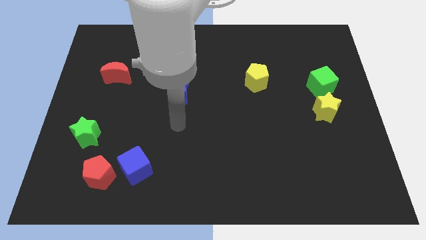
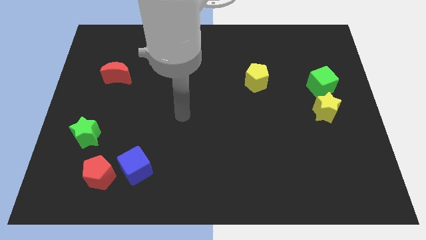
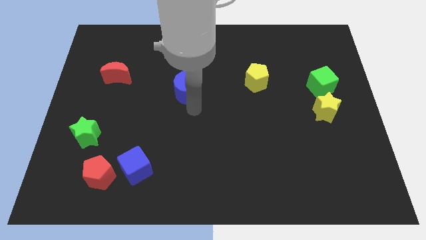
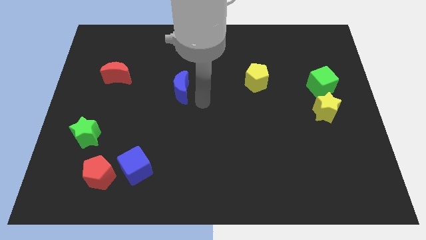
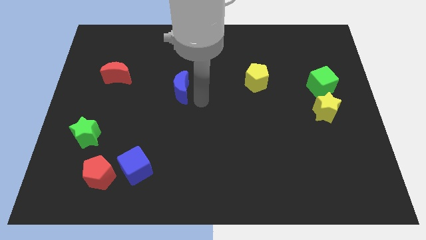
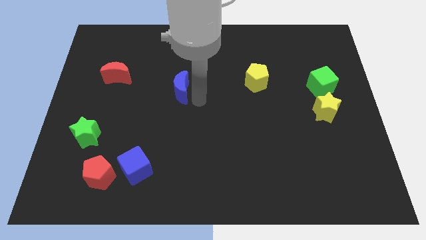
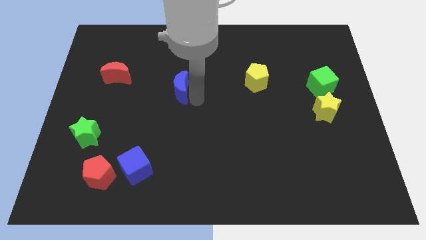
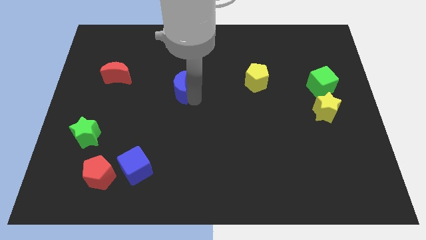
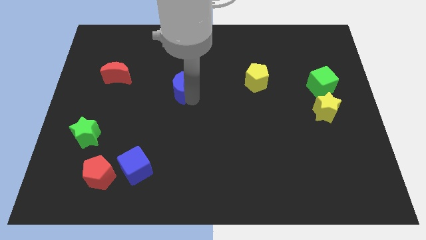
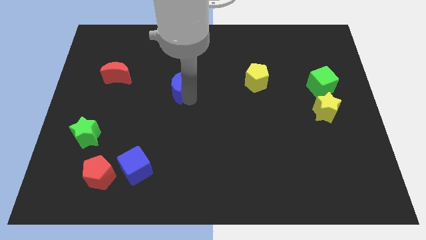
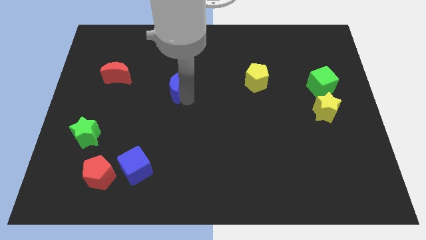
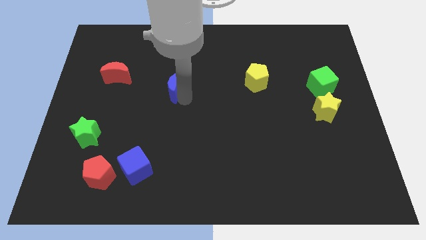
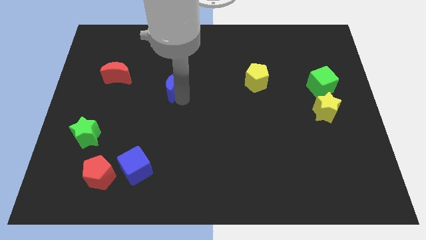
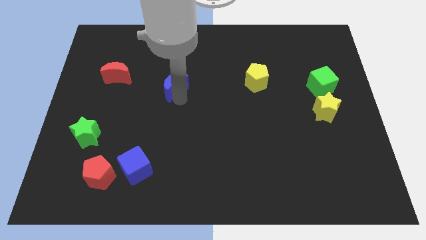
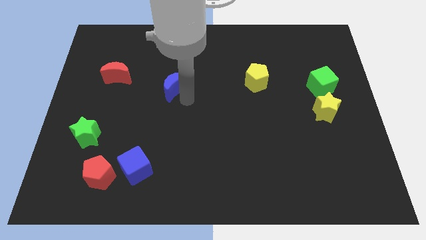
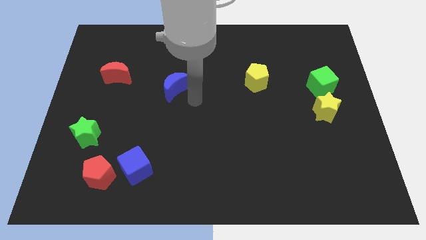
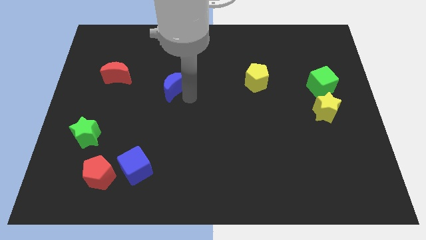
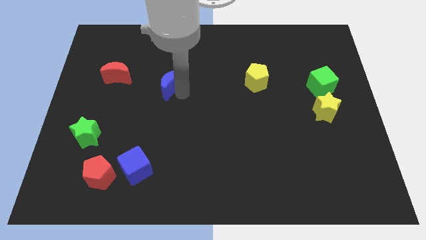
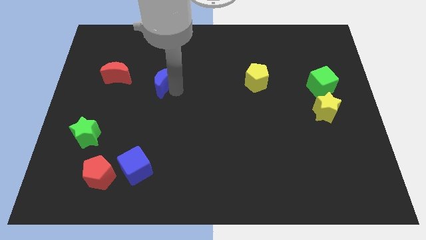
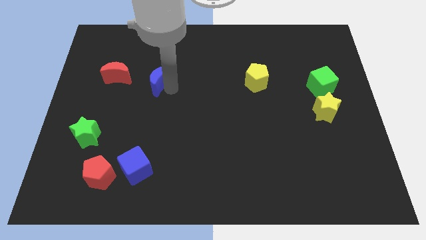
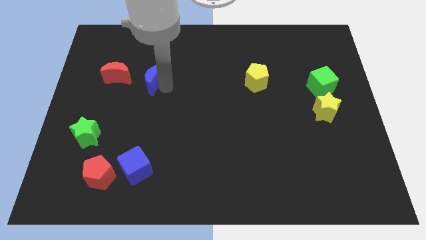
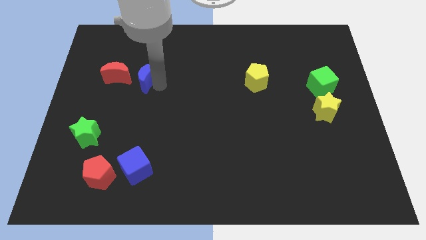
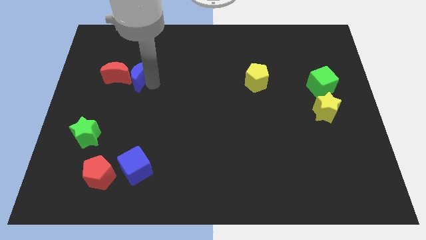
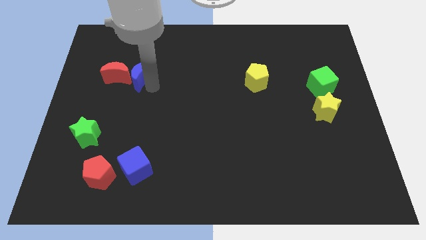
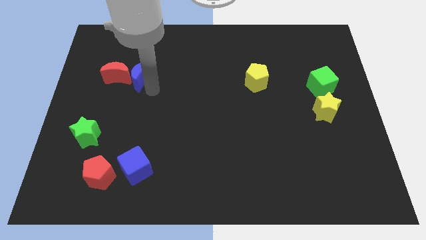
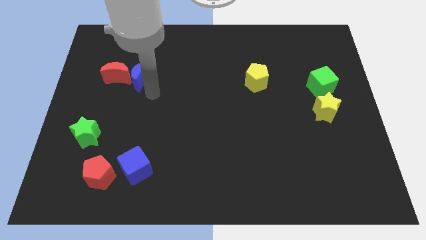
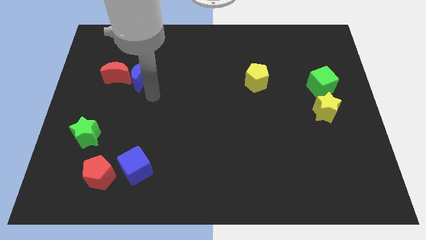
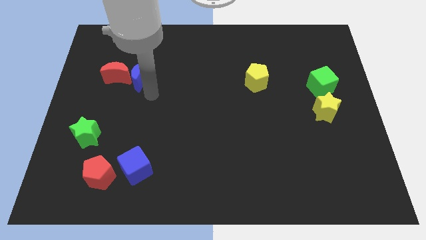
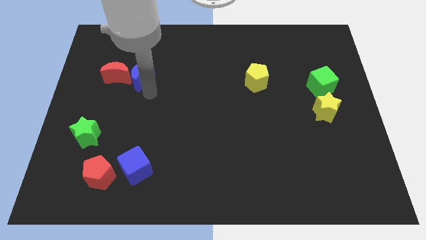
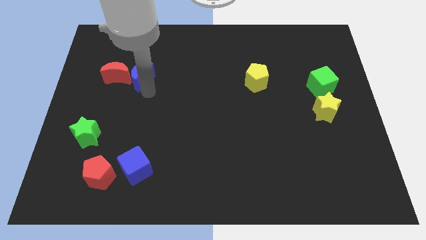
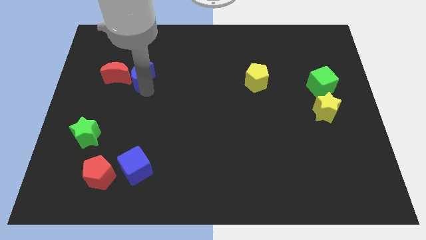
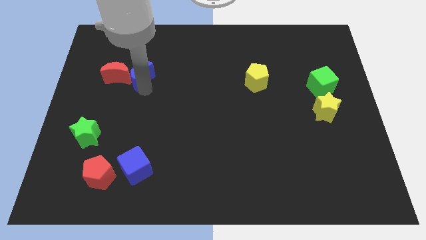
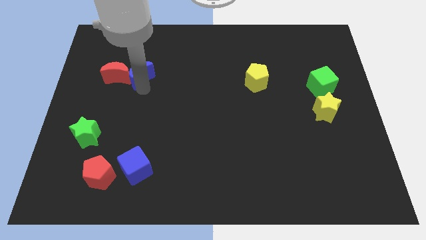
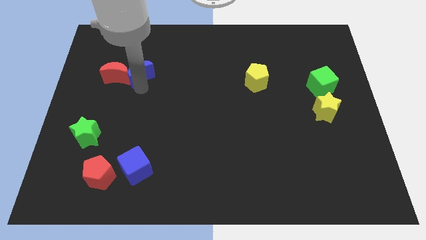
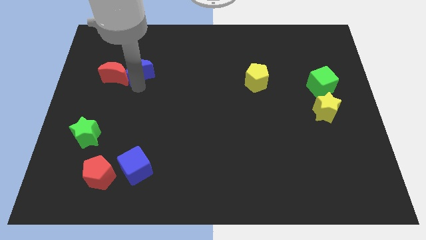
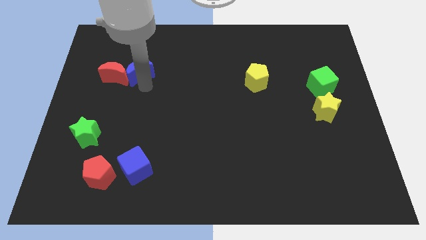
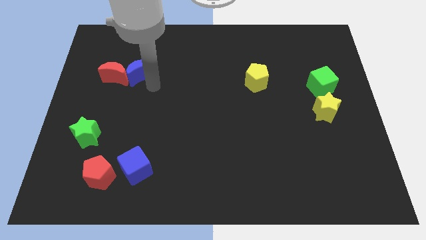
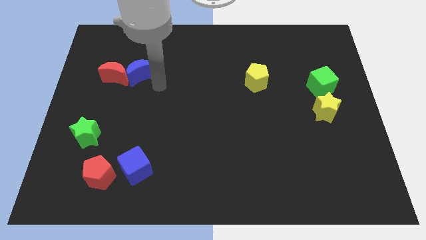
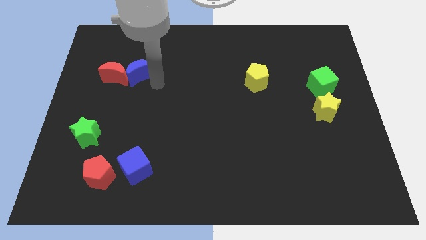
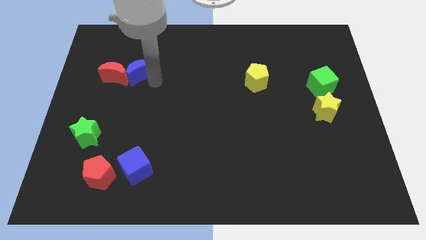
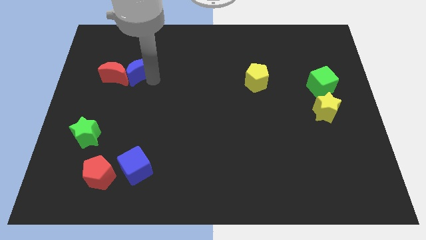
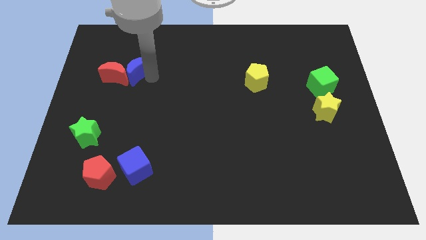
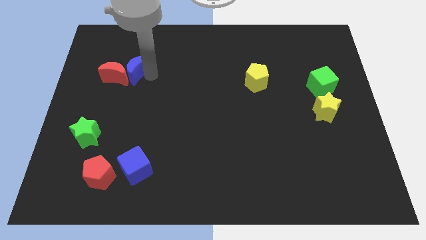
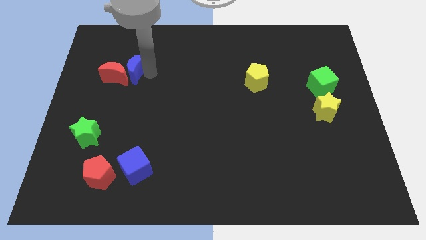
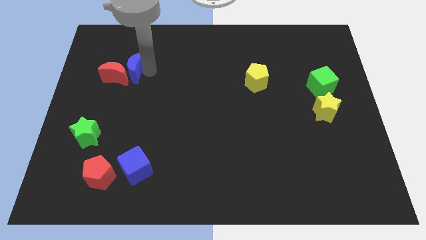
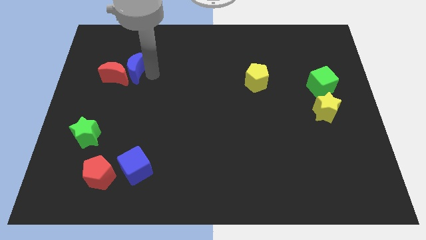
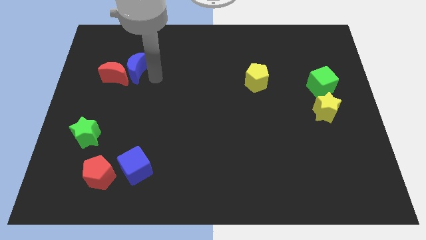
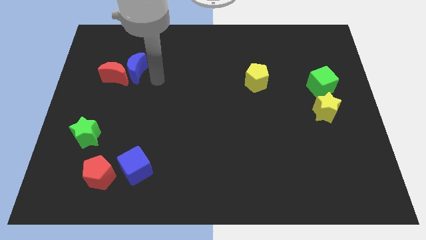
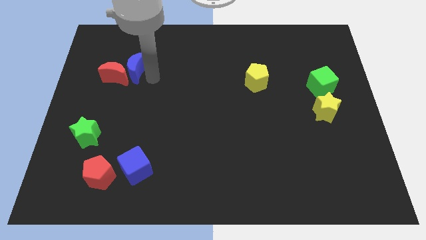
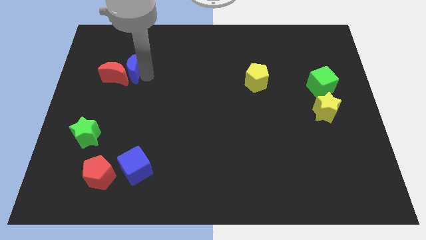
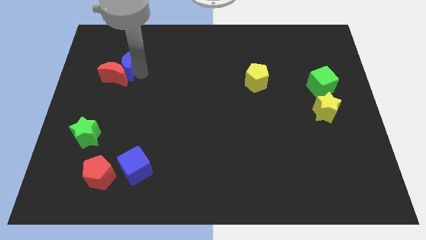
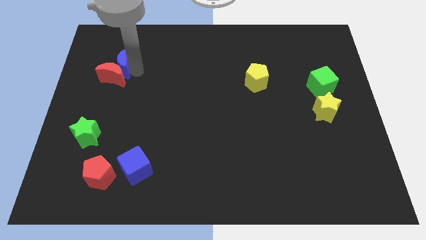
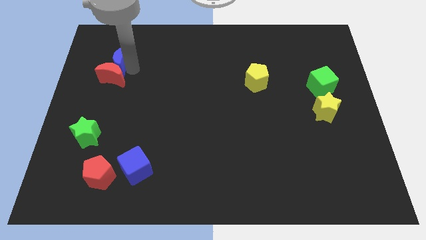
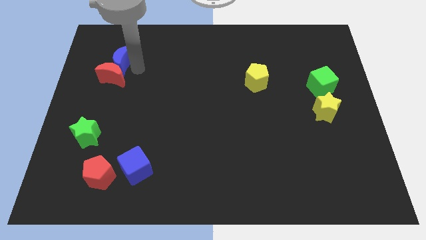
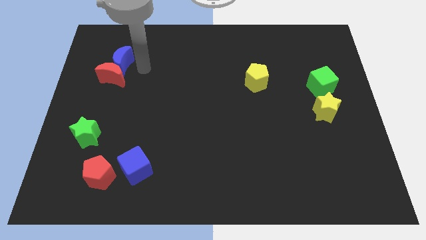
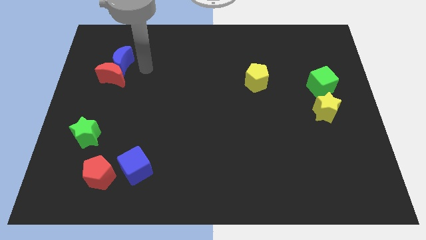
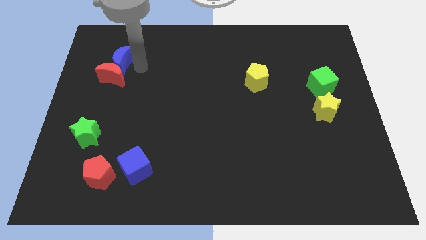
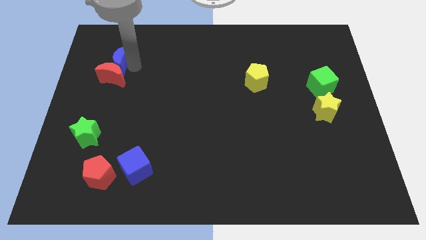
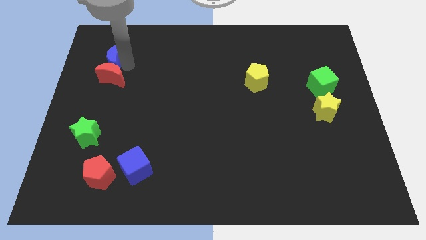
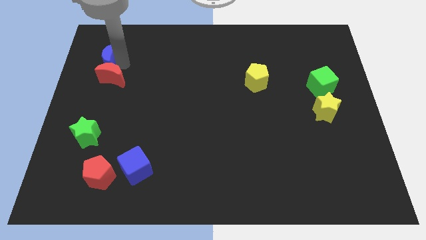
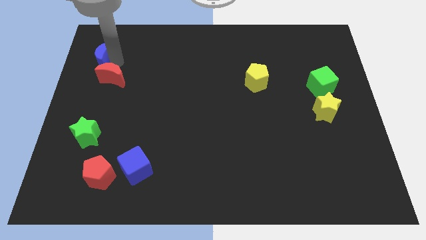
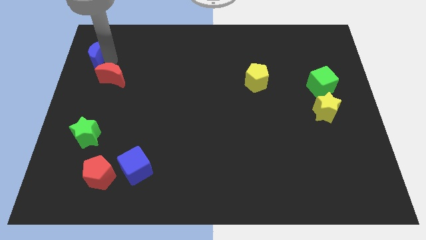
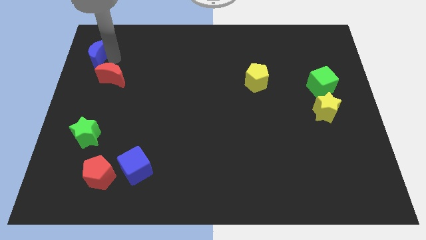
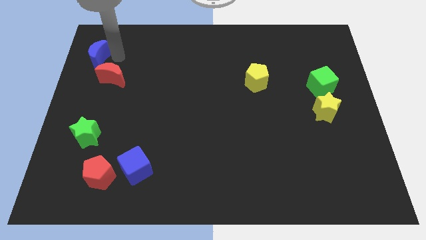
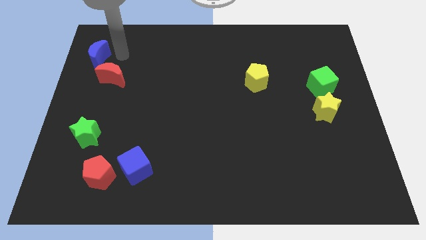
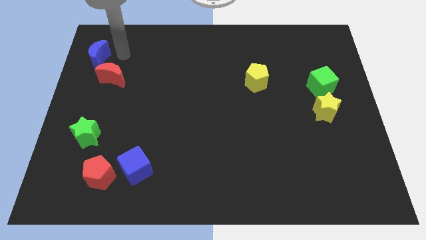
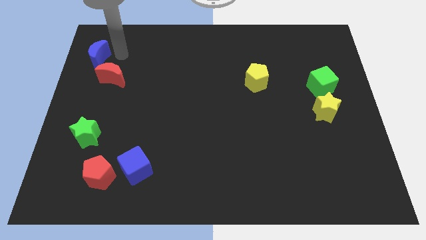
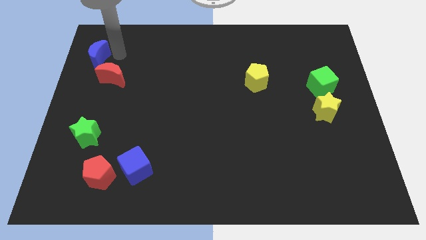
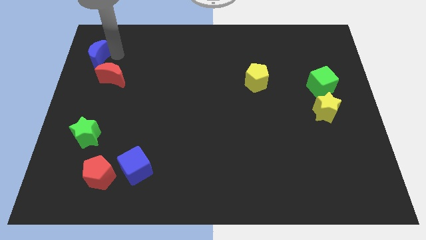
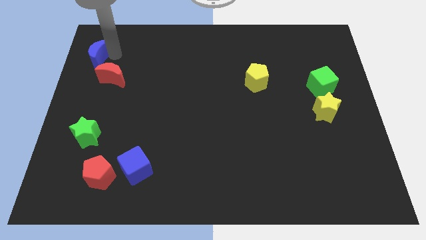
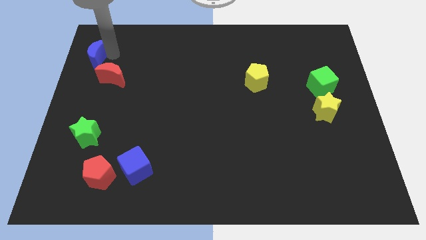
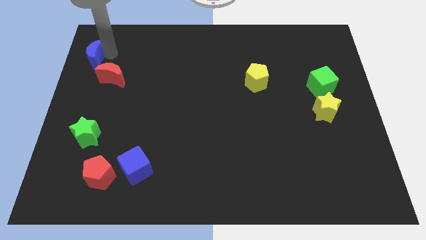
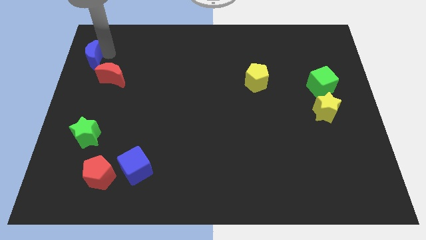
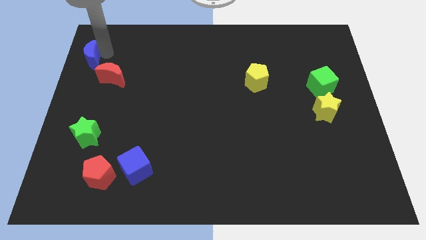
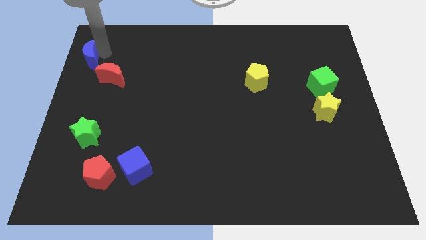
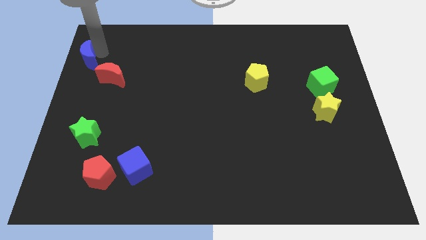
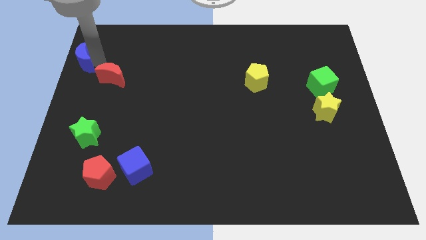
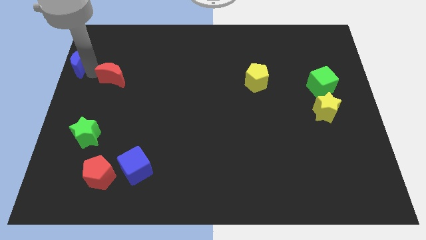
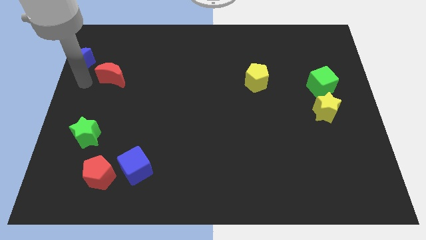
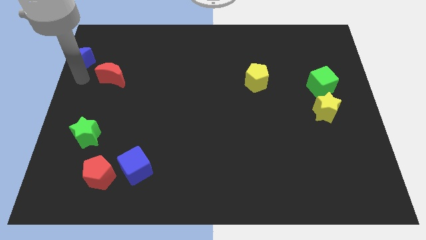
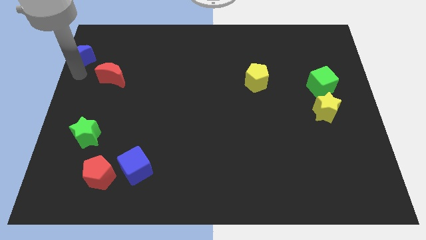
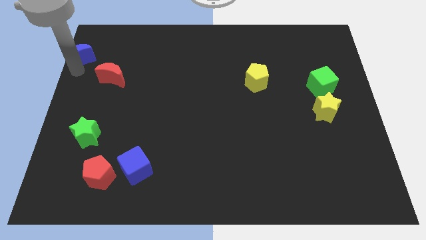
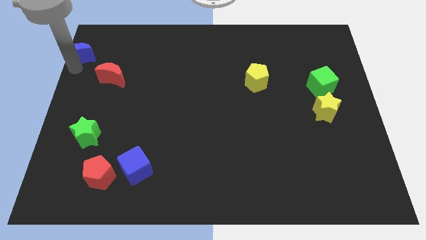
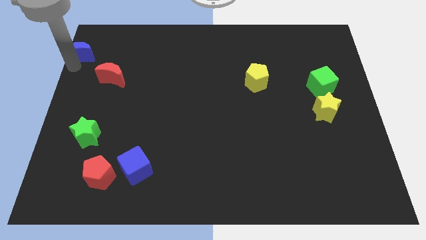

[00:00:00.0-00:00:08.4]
push the blue moon to the upper left corner
